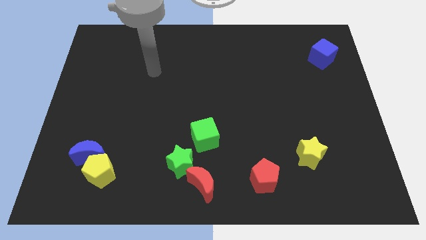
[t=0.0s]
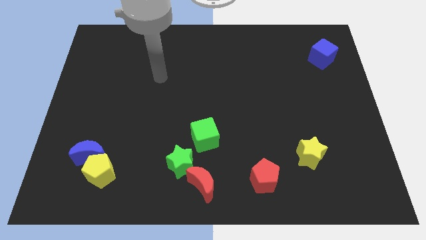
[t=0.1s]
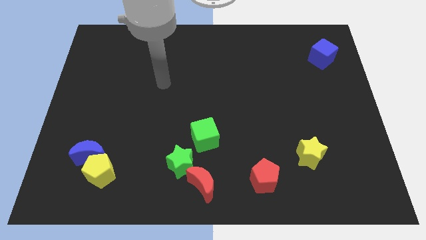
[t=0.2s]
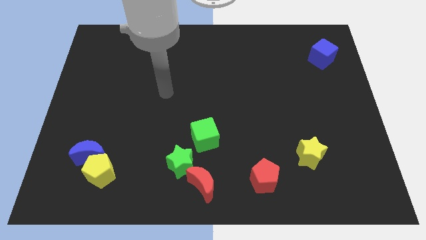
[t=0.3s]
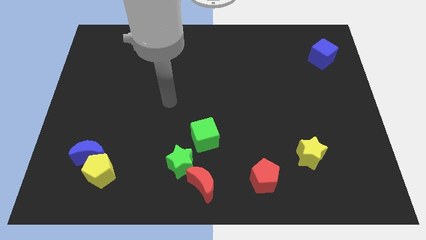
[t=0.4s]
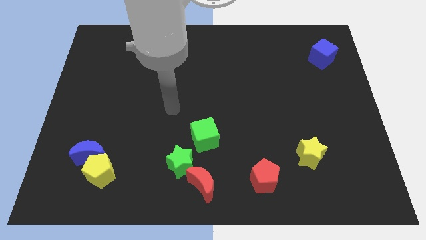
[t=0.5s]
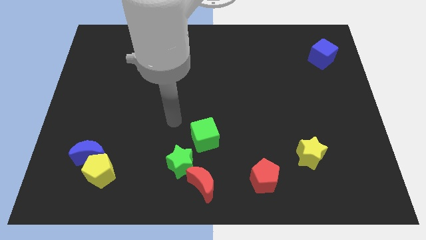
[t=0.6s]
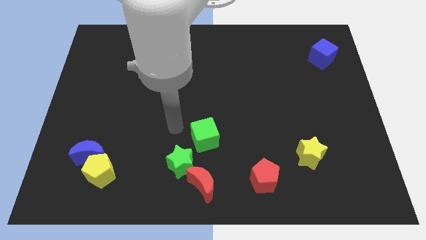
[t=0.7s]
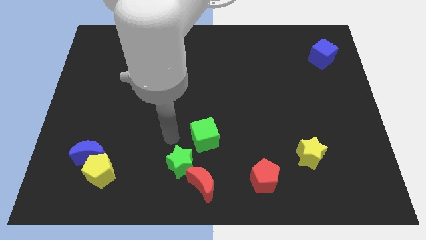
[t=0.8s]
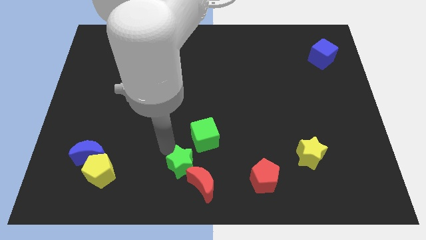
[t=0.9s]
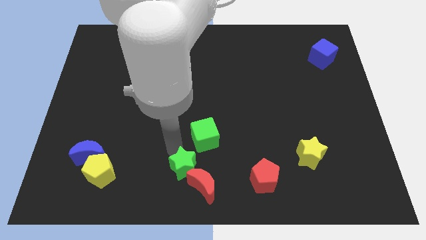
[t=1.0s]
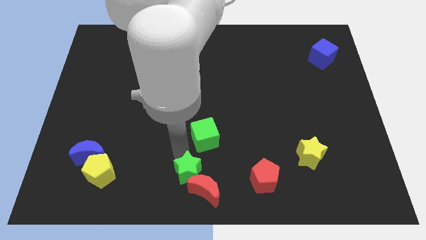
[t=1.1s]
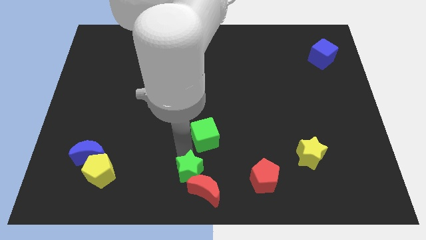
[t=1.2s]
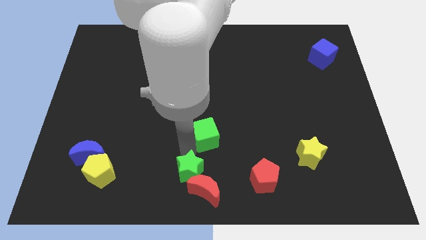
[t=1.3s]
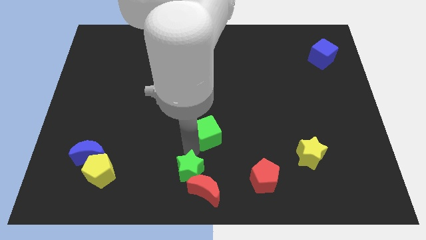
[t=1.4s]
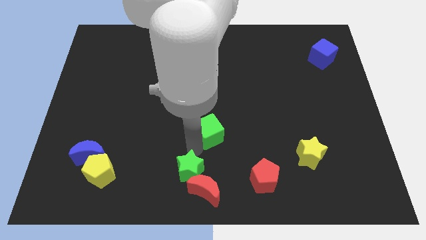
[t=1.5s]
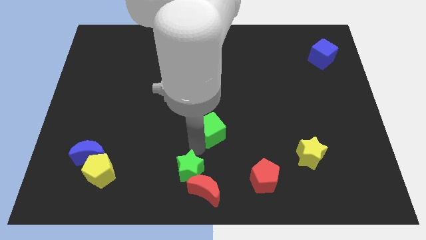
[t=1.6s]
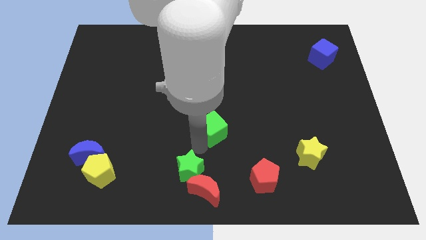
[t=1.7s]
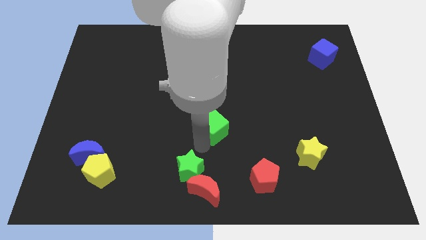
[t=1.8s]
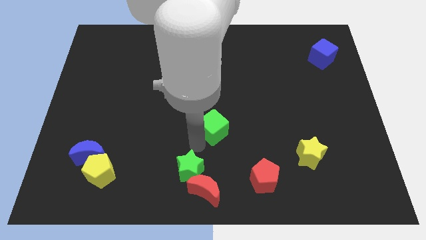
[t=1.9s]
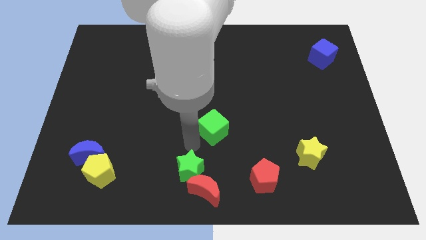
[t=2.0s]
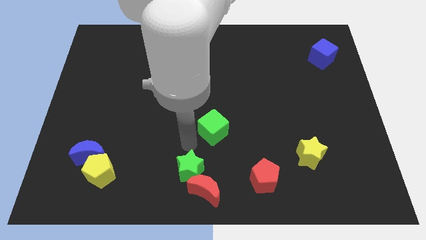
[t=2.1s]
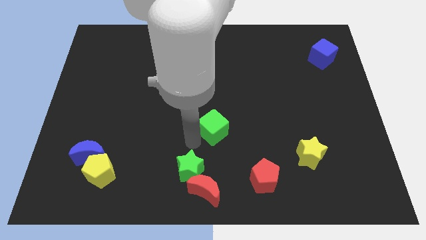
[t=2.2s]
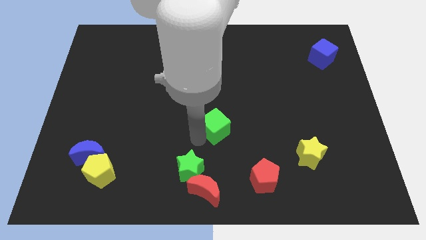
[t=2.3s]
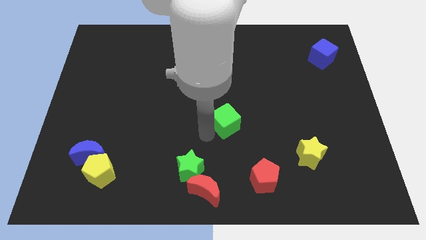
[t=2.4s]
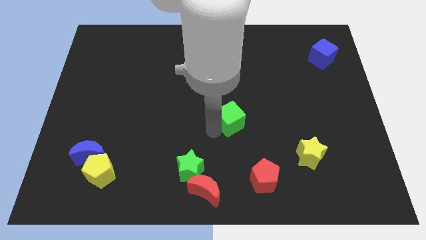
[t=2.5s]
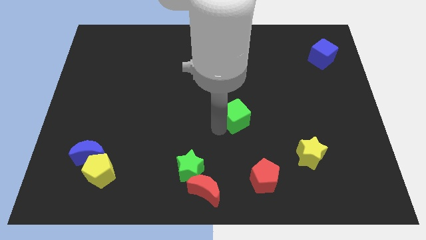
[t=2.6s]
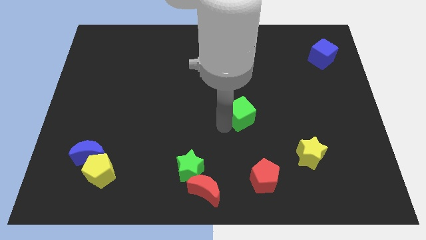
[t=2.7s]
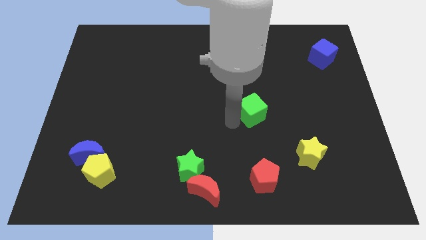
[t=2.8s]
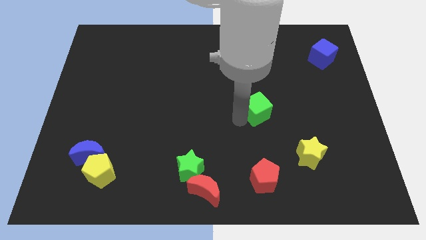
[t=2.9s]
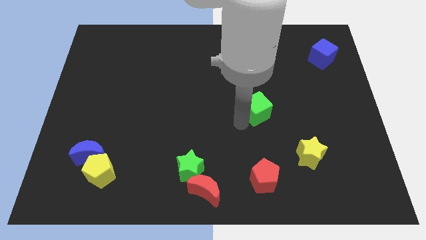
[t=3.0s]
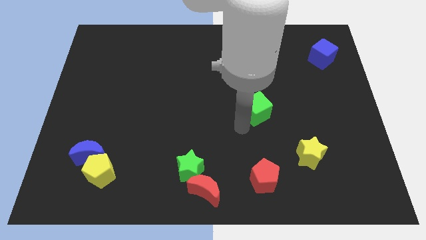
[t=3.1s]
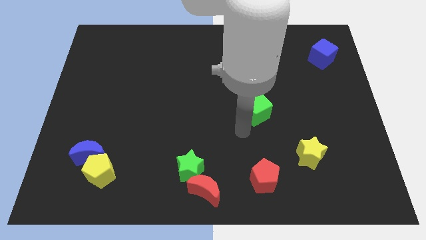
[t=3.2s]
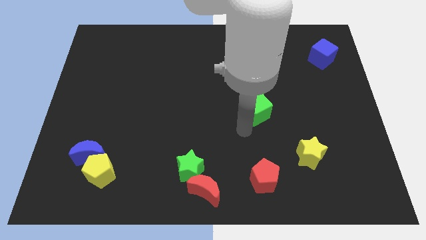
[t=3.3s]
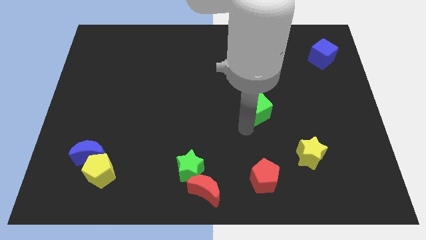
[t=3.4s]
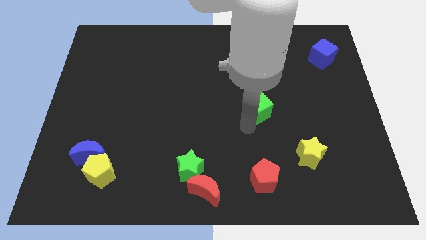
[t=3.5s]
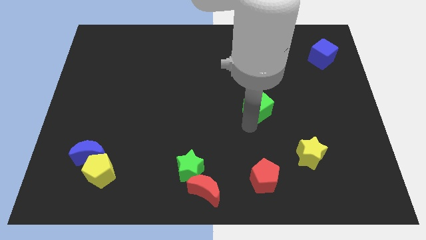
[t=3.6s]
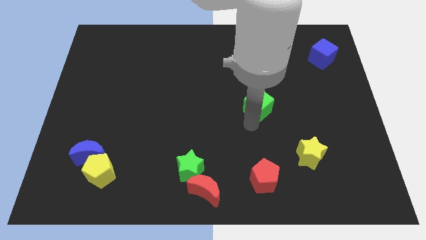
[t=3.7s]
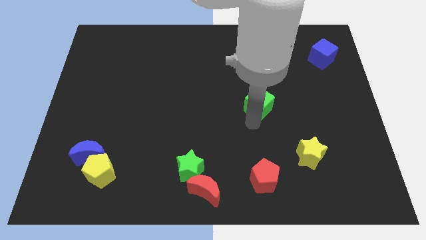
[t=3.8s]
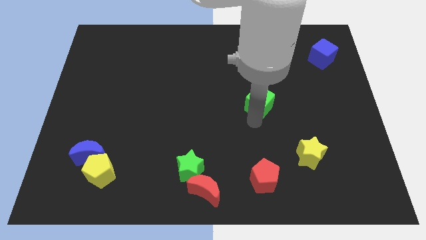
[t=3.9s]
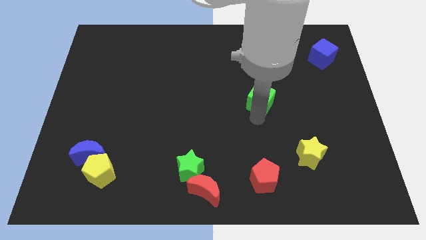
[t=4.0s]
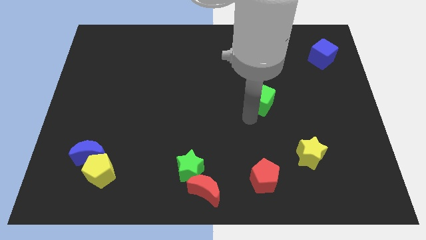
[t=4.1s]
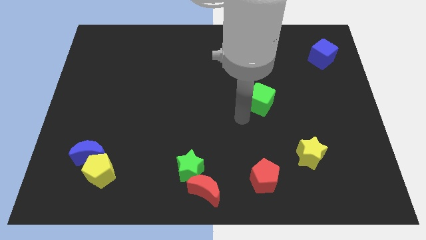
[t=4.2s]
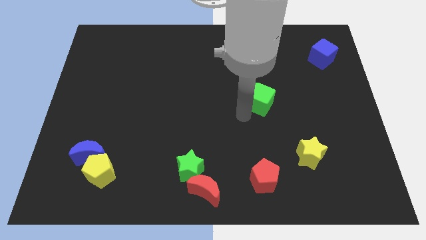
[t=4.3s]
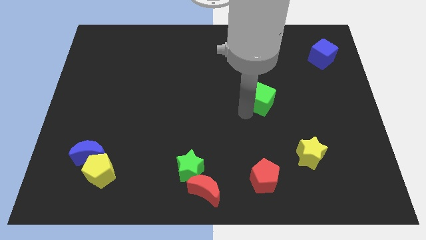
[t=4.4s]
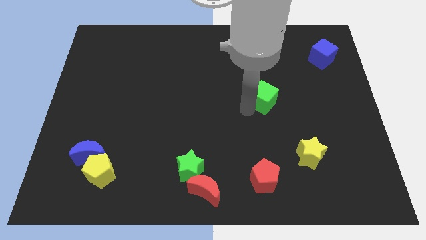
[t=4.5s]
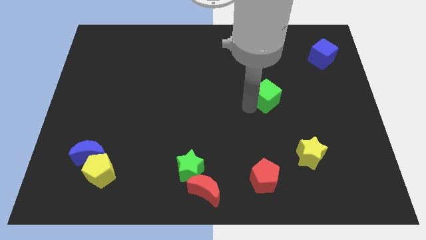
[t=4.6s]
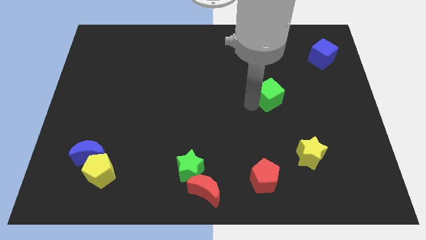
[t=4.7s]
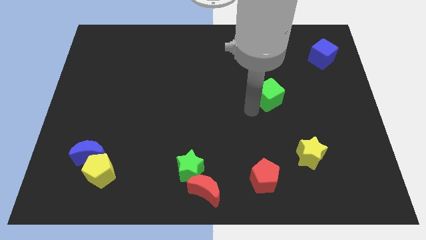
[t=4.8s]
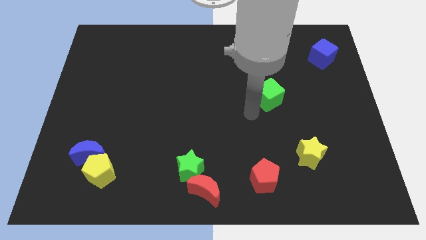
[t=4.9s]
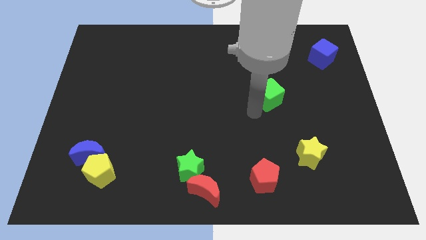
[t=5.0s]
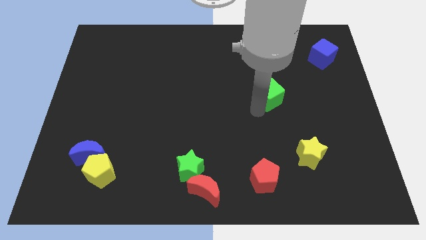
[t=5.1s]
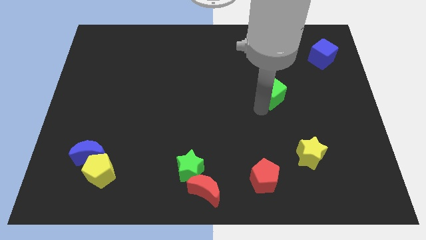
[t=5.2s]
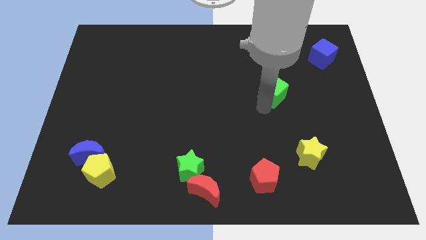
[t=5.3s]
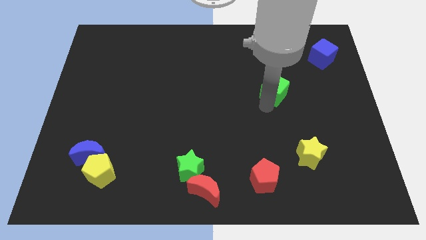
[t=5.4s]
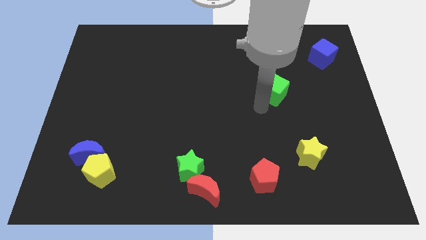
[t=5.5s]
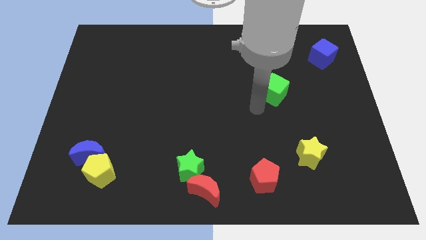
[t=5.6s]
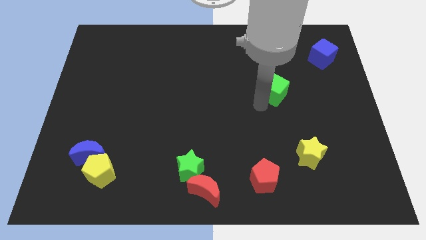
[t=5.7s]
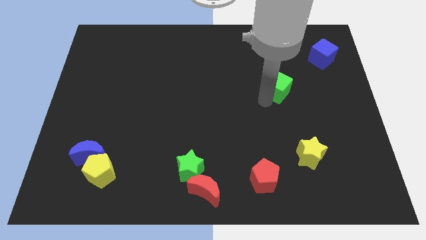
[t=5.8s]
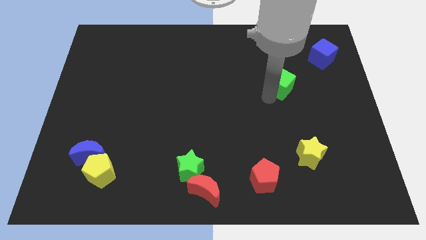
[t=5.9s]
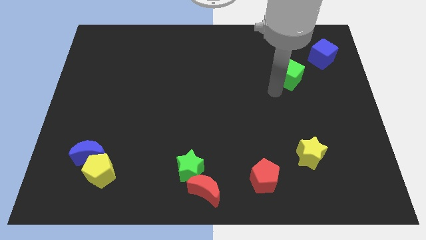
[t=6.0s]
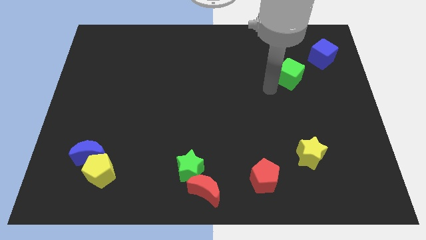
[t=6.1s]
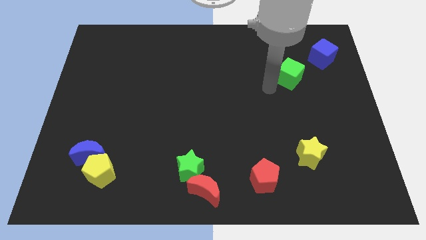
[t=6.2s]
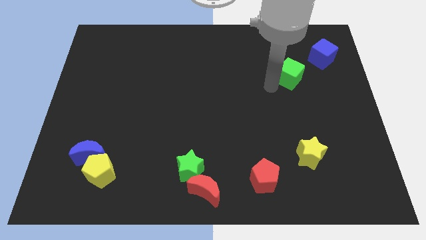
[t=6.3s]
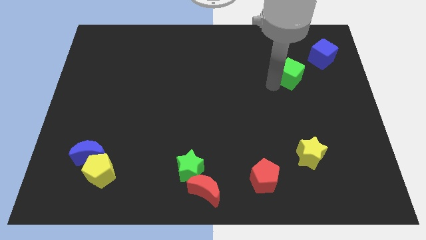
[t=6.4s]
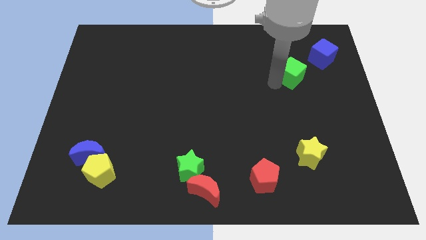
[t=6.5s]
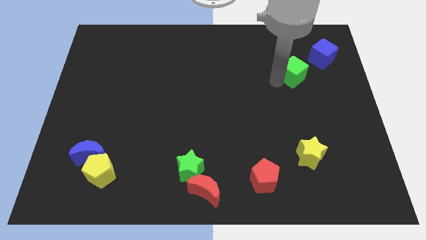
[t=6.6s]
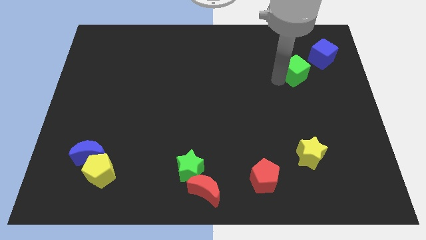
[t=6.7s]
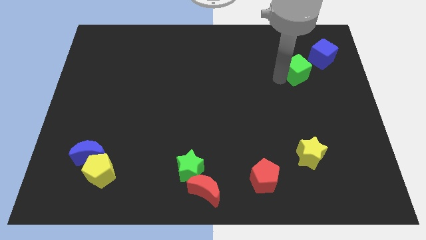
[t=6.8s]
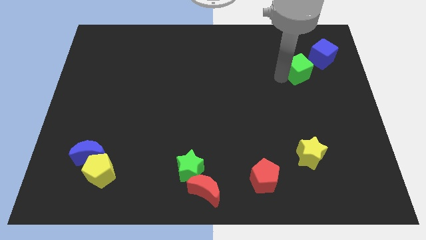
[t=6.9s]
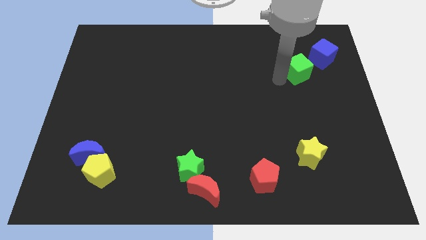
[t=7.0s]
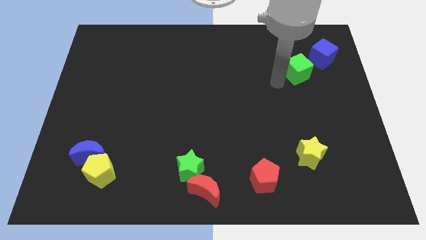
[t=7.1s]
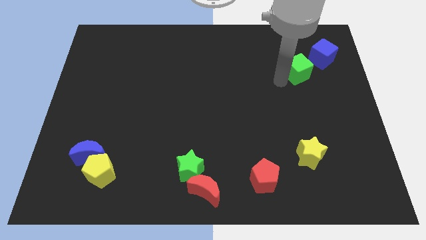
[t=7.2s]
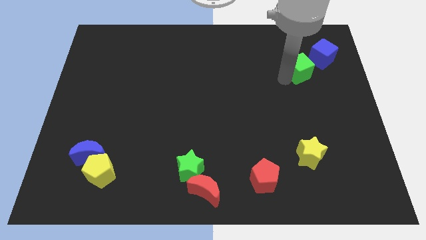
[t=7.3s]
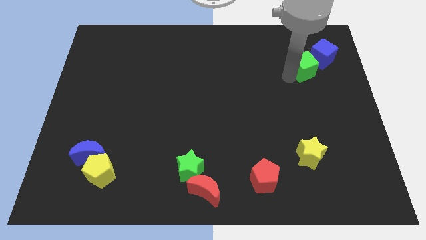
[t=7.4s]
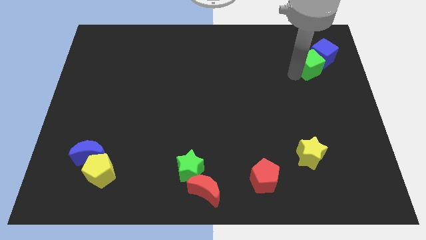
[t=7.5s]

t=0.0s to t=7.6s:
move the green cube next to the blue cube

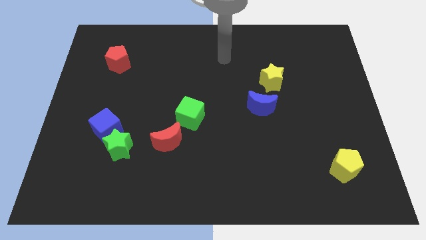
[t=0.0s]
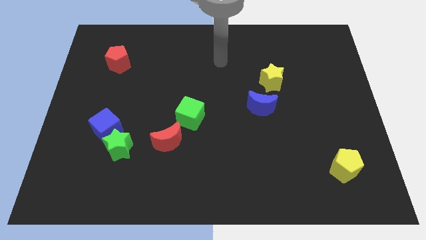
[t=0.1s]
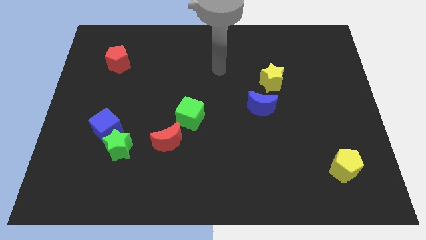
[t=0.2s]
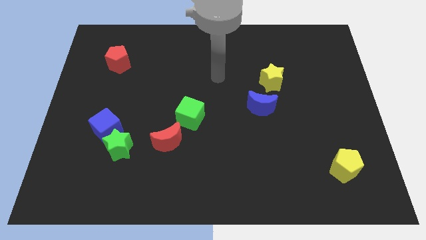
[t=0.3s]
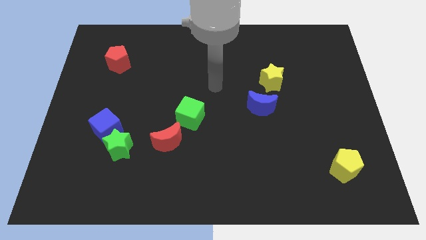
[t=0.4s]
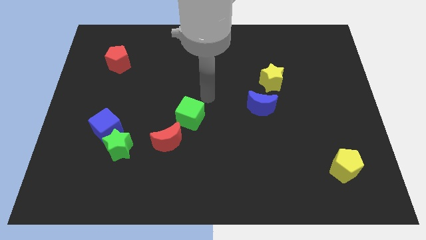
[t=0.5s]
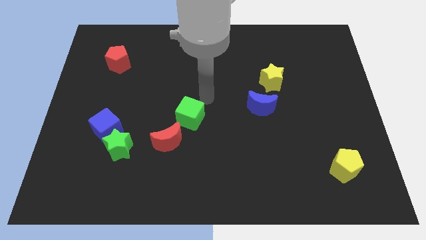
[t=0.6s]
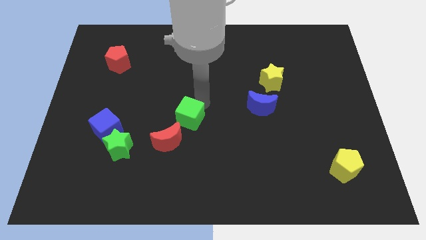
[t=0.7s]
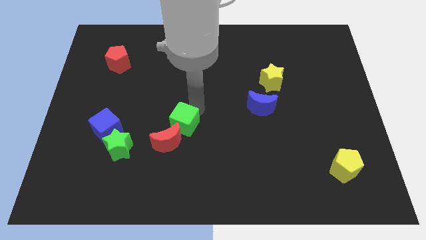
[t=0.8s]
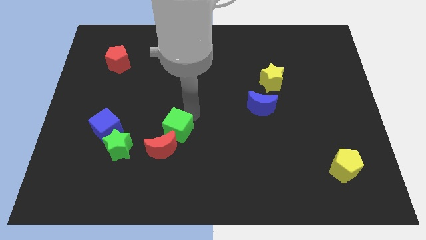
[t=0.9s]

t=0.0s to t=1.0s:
push the green cube close to the red moon
